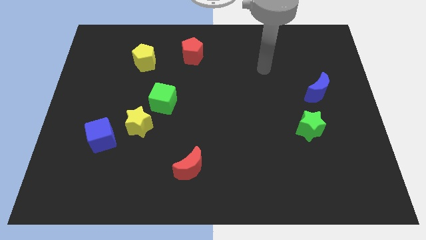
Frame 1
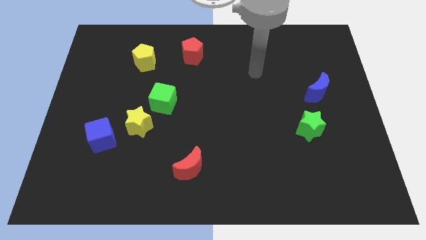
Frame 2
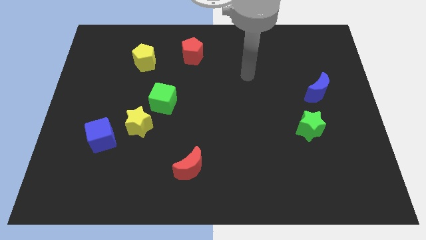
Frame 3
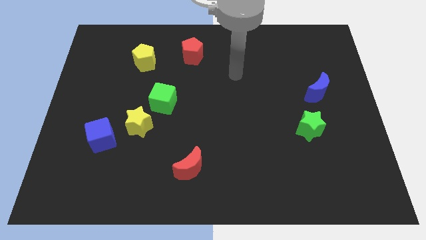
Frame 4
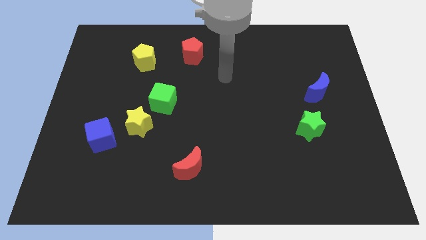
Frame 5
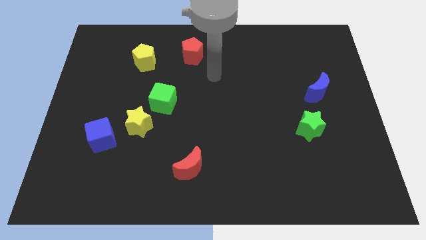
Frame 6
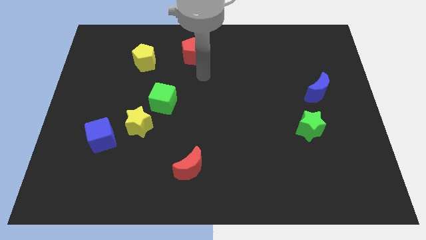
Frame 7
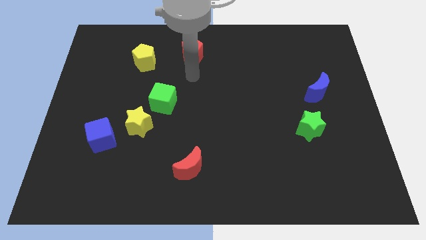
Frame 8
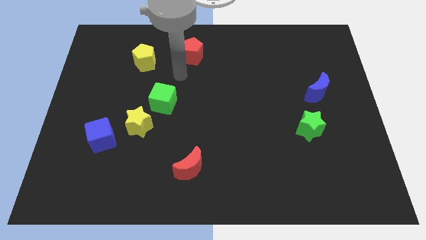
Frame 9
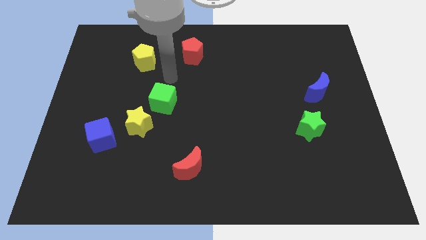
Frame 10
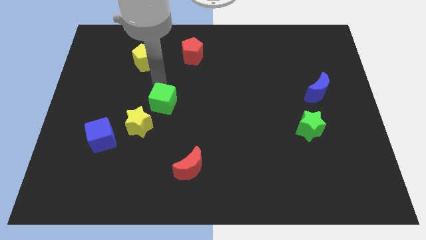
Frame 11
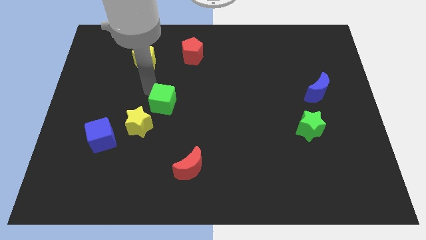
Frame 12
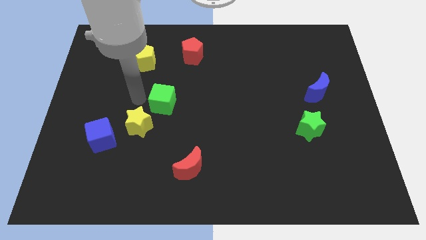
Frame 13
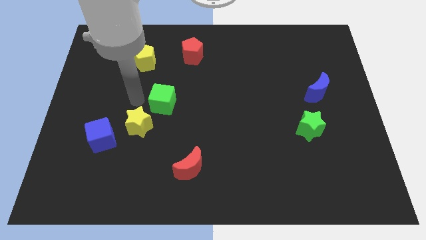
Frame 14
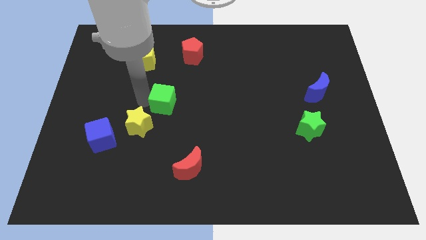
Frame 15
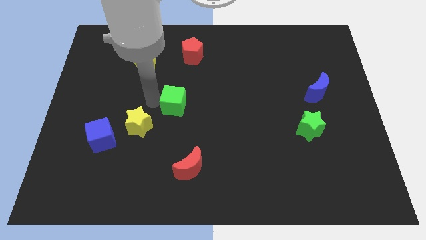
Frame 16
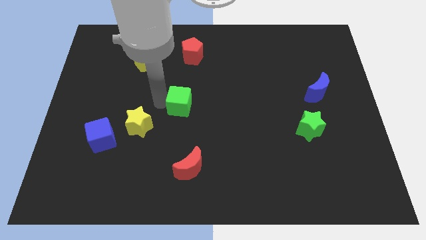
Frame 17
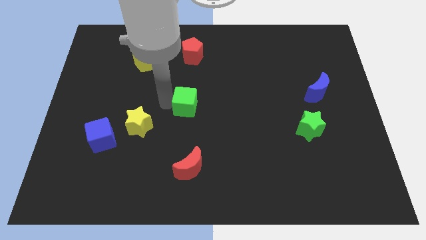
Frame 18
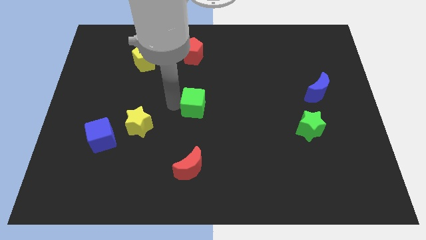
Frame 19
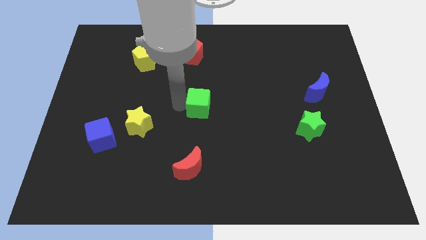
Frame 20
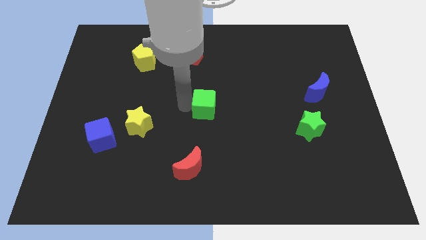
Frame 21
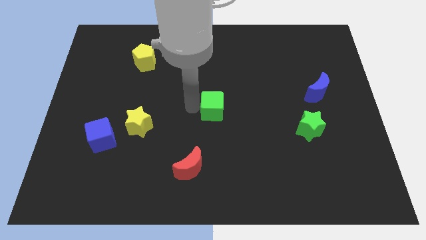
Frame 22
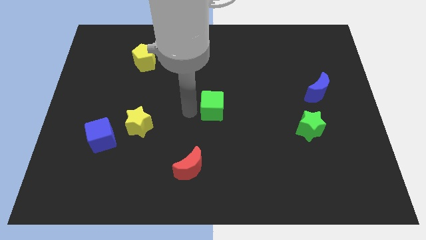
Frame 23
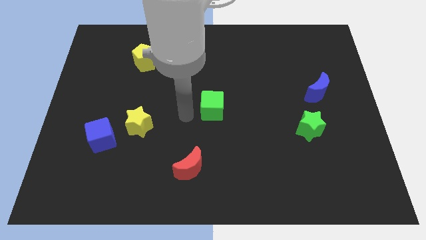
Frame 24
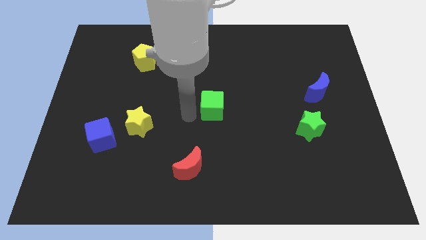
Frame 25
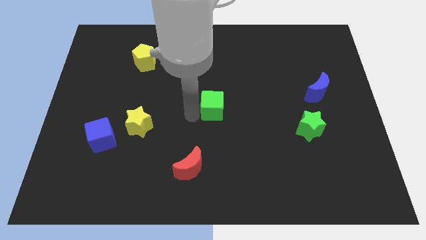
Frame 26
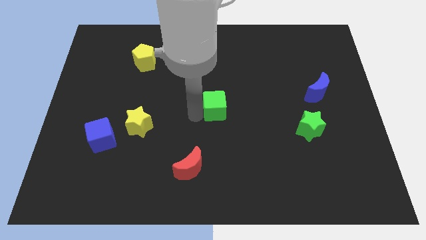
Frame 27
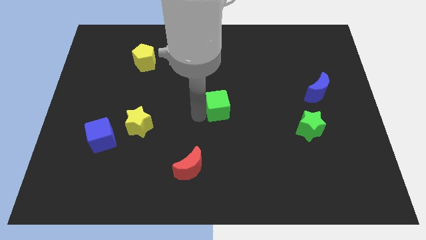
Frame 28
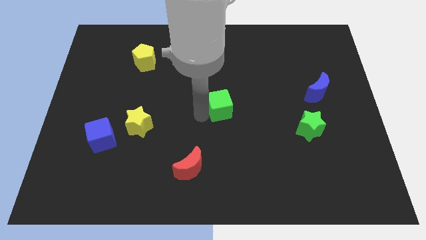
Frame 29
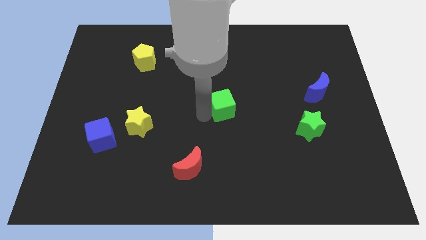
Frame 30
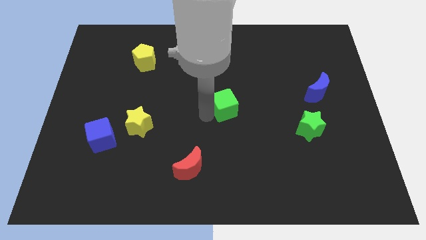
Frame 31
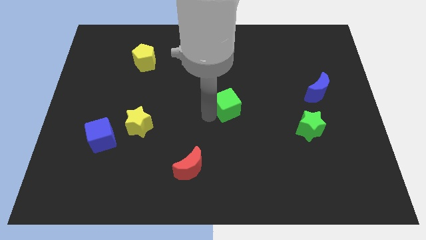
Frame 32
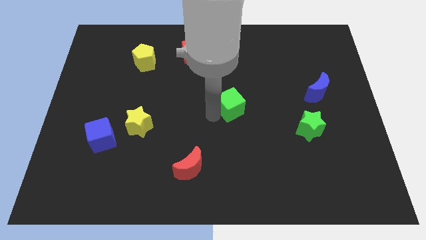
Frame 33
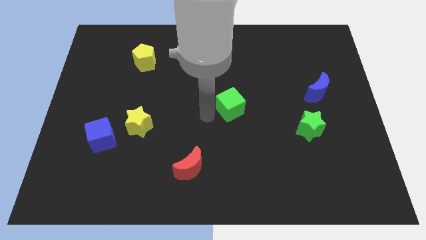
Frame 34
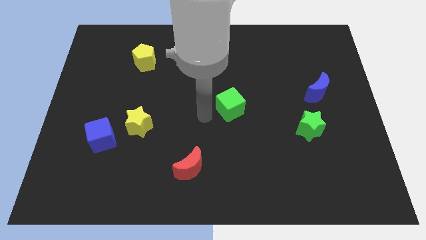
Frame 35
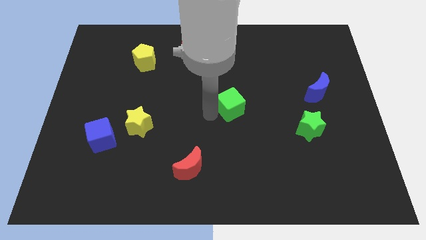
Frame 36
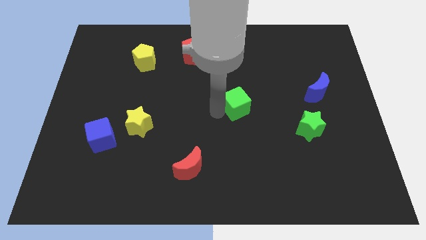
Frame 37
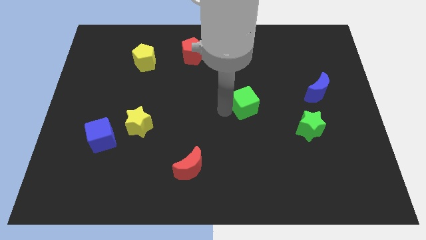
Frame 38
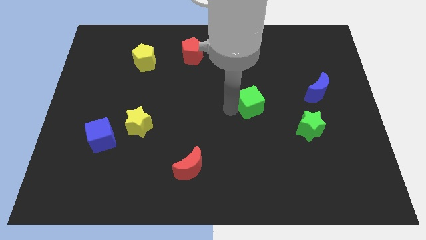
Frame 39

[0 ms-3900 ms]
move the green cube to the right

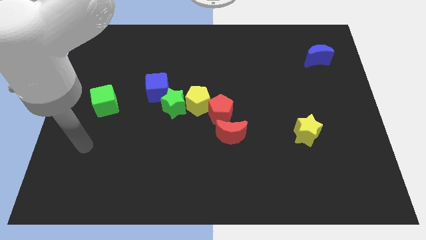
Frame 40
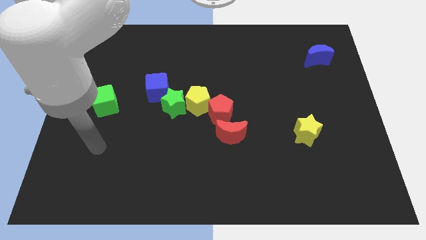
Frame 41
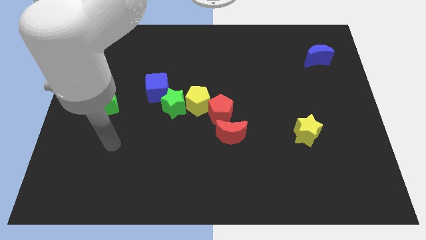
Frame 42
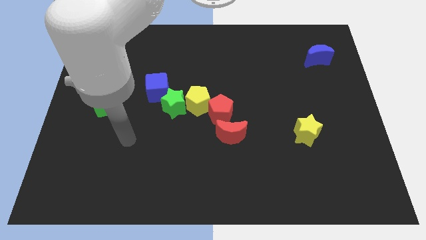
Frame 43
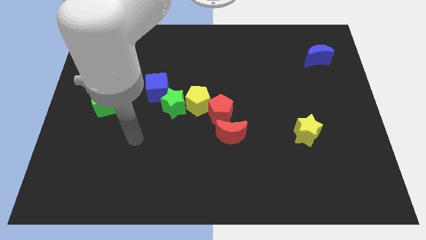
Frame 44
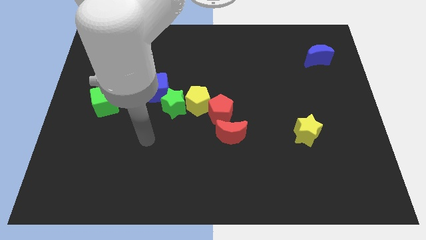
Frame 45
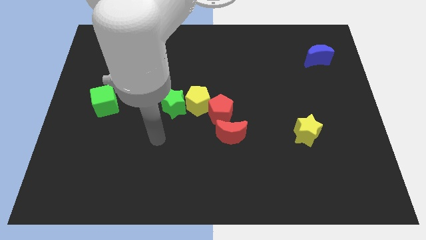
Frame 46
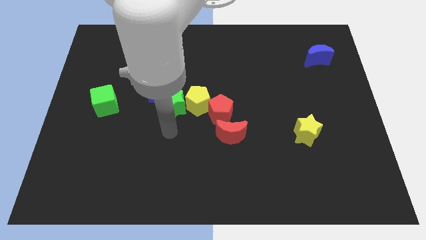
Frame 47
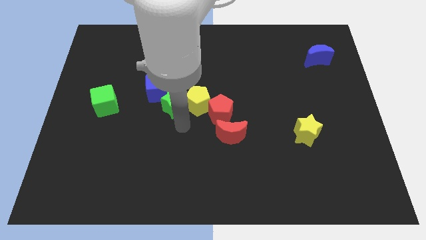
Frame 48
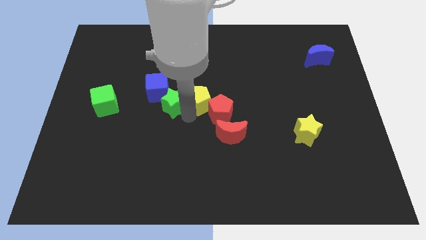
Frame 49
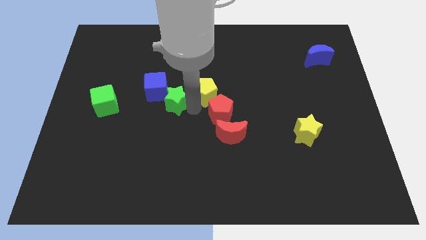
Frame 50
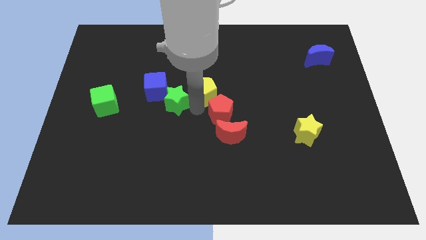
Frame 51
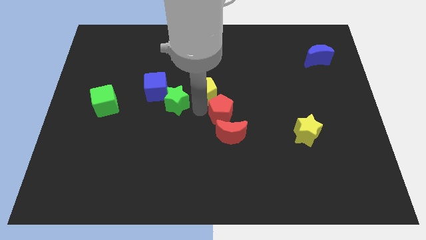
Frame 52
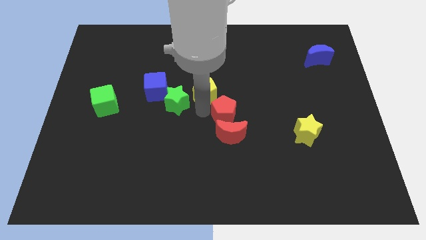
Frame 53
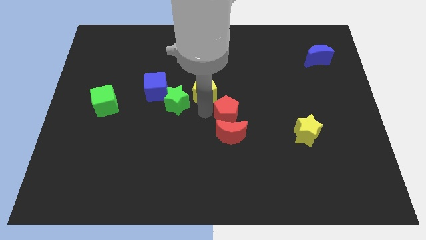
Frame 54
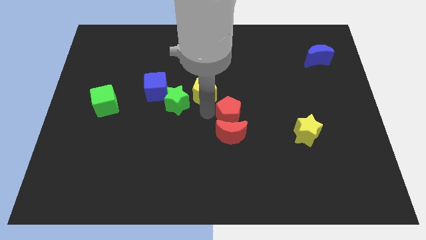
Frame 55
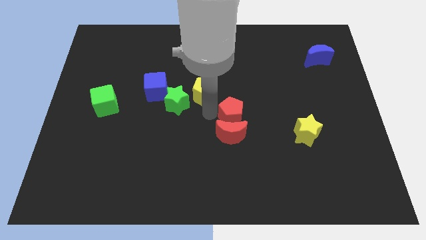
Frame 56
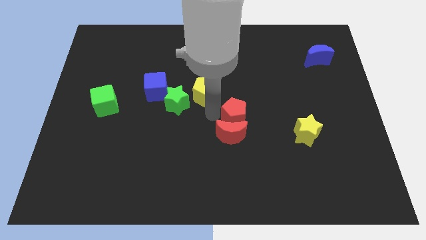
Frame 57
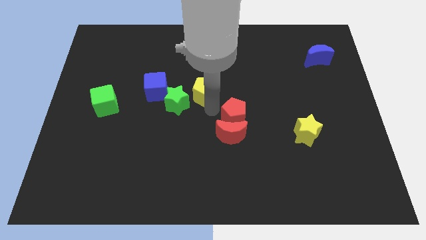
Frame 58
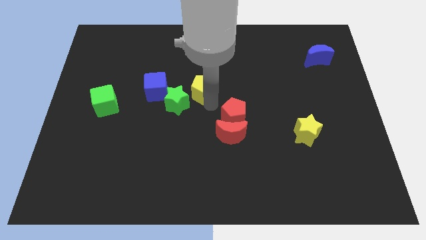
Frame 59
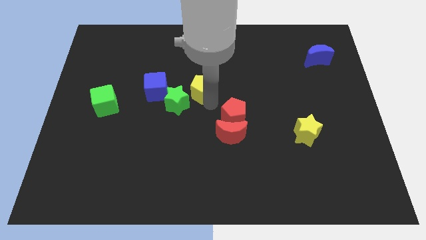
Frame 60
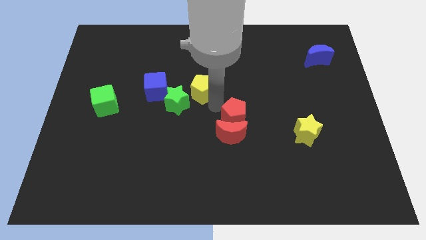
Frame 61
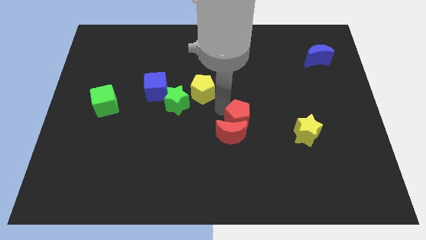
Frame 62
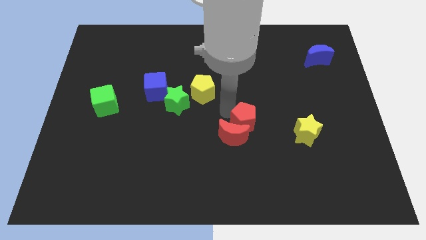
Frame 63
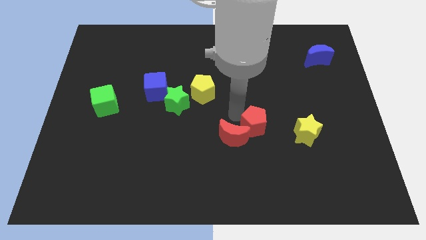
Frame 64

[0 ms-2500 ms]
move the red pentagon down and to the right a bit

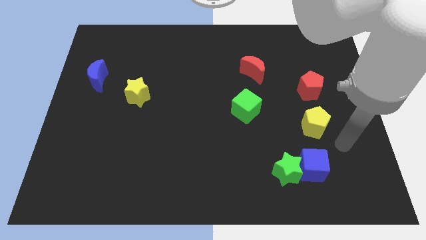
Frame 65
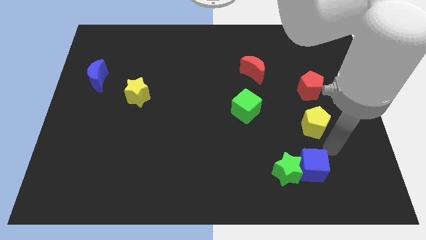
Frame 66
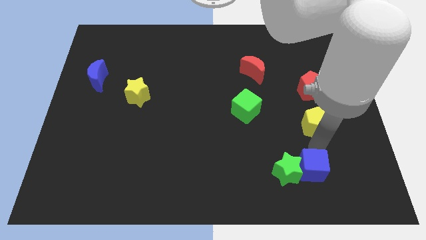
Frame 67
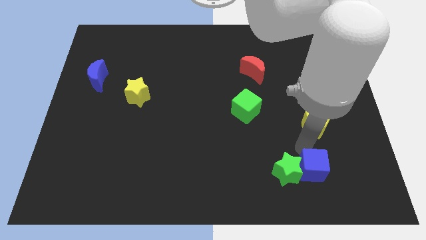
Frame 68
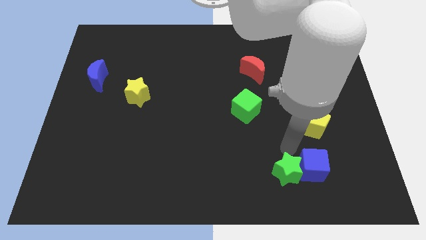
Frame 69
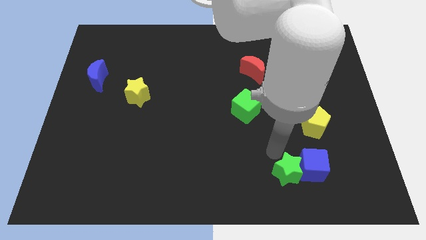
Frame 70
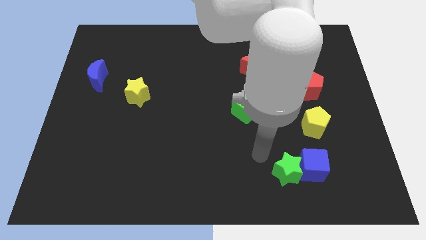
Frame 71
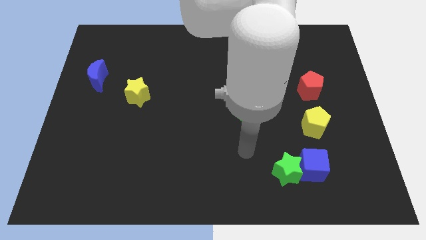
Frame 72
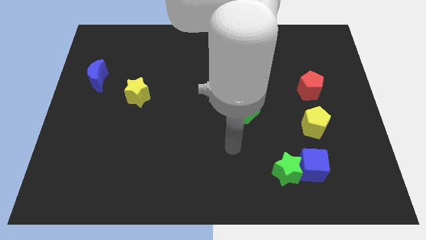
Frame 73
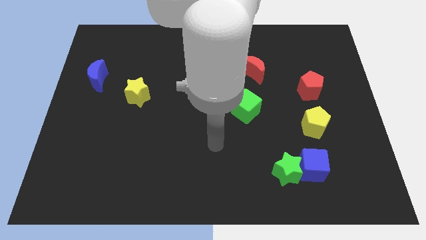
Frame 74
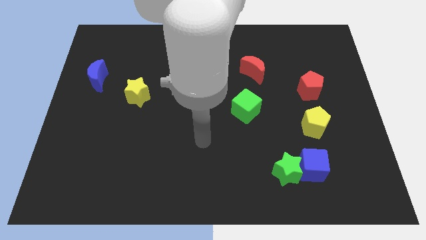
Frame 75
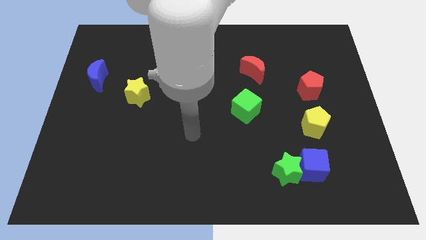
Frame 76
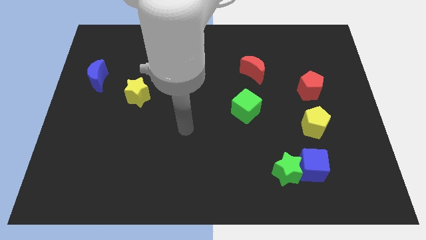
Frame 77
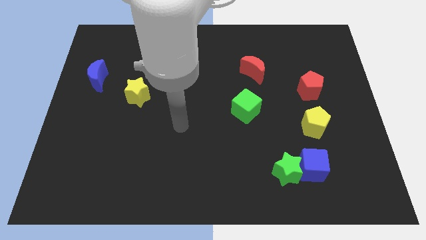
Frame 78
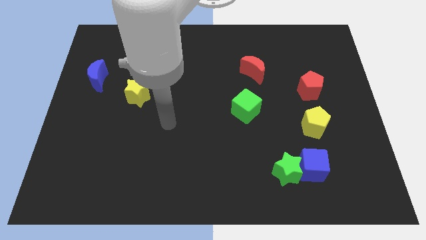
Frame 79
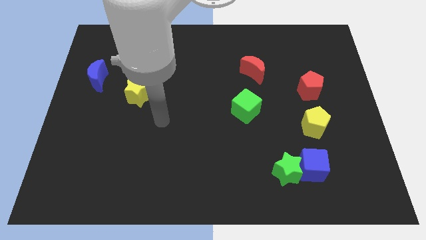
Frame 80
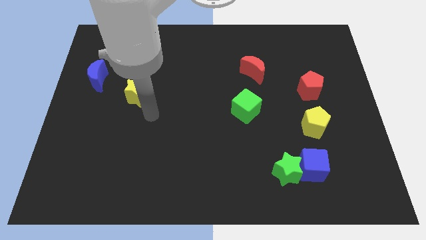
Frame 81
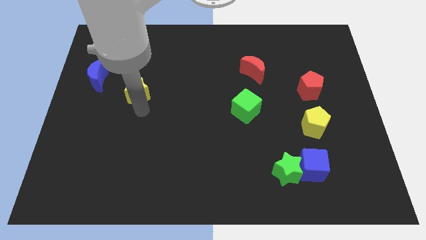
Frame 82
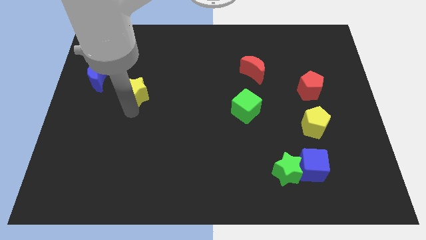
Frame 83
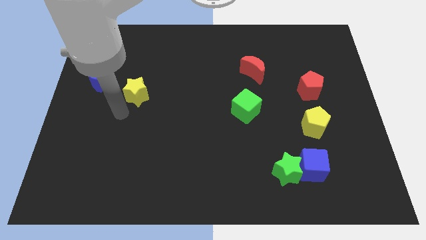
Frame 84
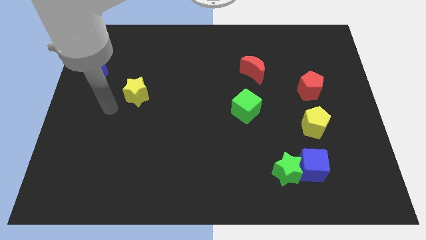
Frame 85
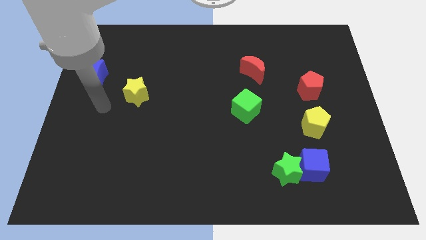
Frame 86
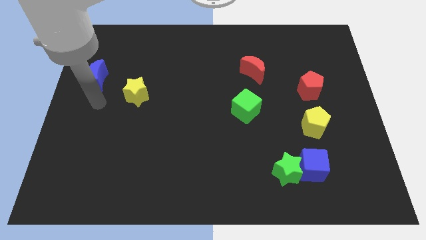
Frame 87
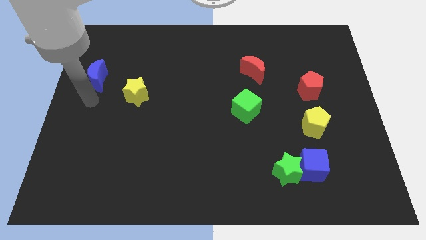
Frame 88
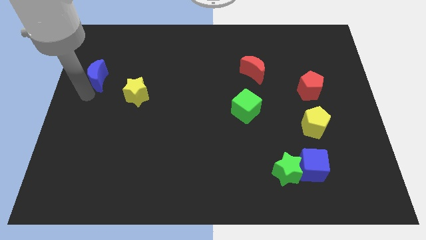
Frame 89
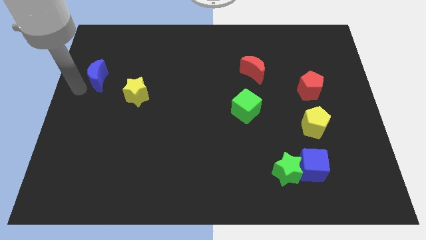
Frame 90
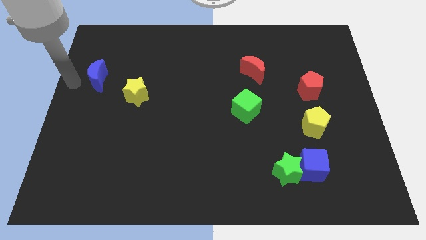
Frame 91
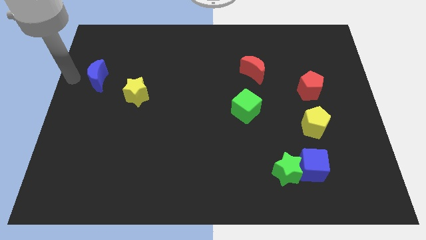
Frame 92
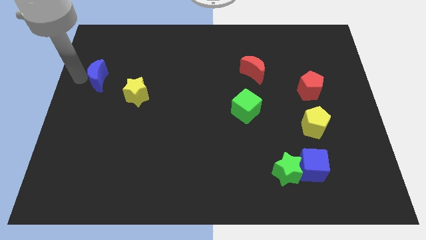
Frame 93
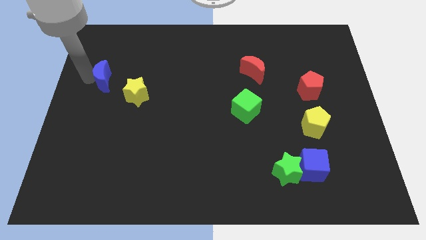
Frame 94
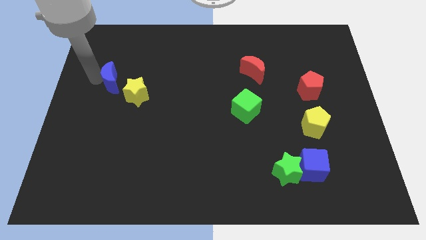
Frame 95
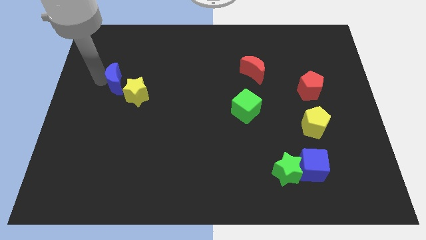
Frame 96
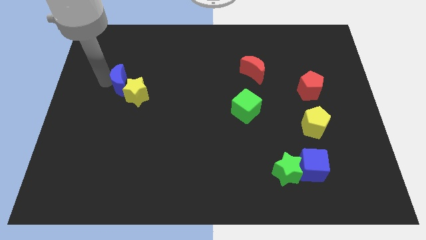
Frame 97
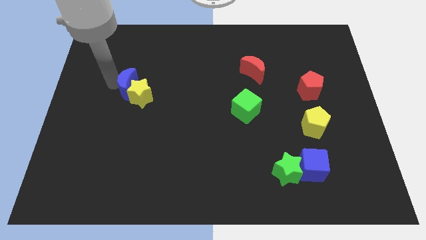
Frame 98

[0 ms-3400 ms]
push the blue moon to the right slightly
